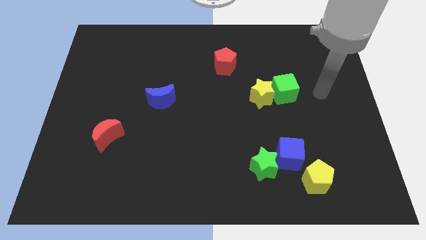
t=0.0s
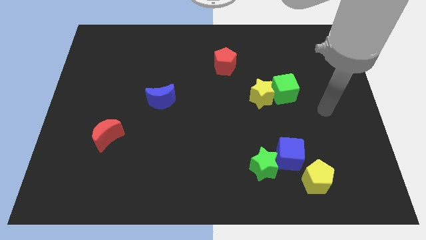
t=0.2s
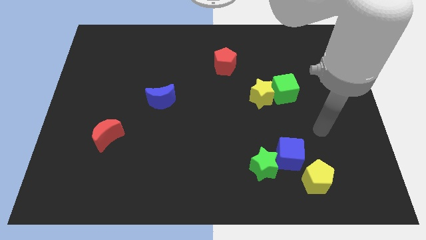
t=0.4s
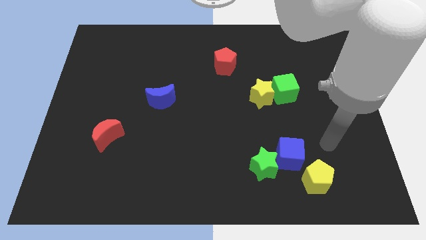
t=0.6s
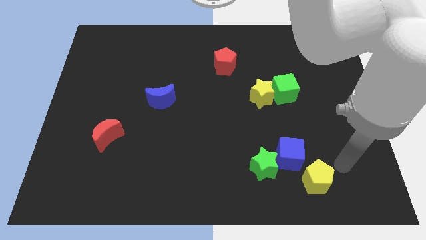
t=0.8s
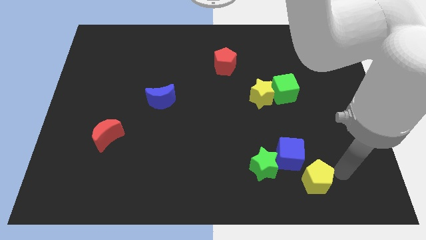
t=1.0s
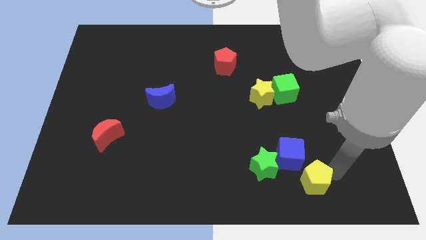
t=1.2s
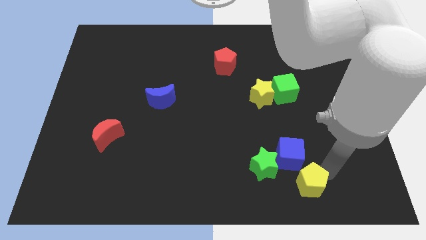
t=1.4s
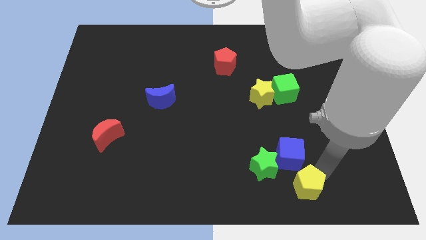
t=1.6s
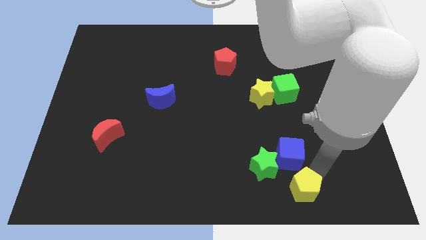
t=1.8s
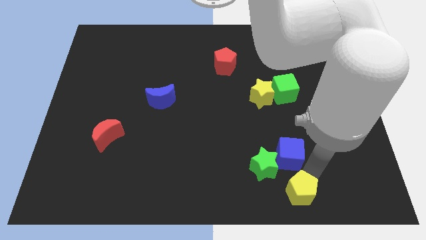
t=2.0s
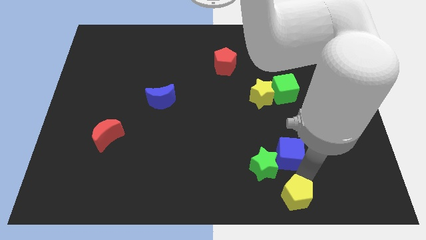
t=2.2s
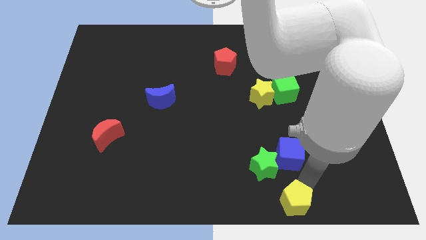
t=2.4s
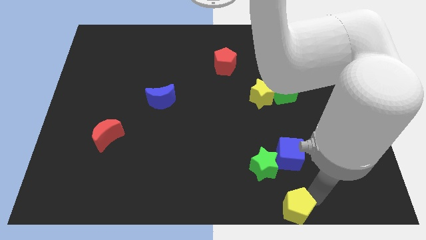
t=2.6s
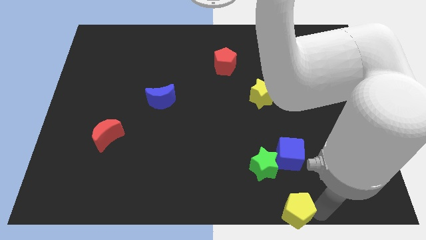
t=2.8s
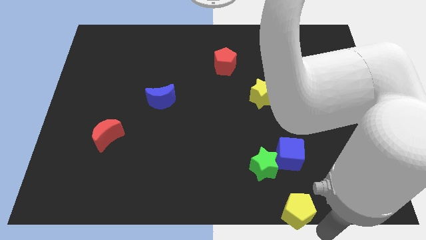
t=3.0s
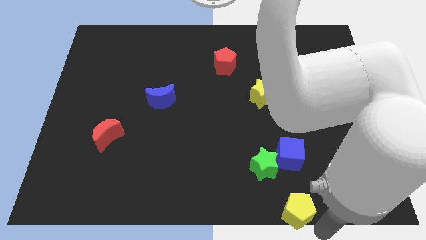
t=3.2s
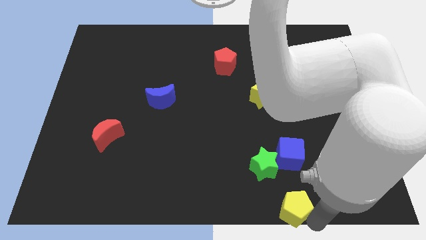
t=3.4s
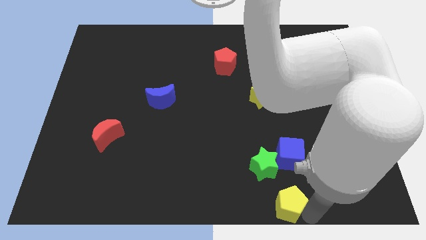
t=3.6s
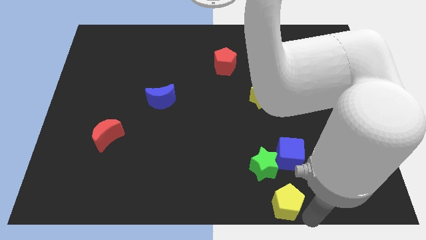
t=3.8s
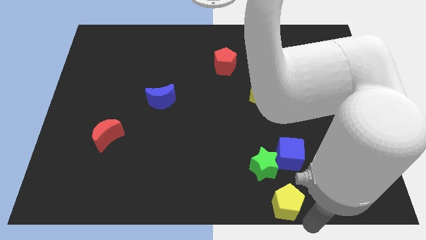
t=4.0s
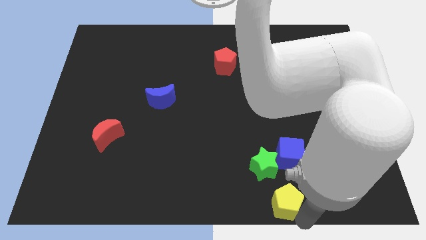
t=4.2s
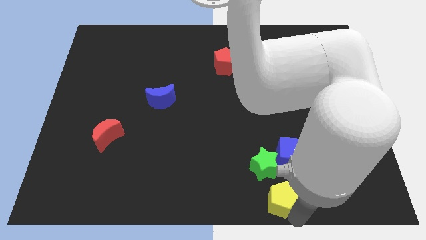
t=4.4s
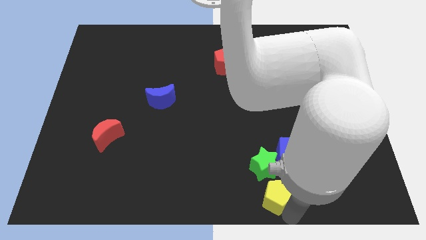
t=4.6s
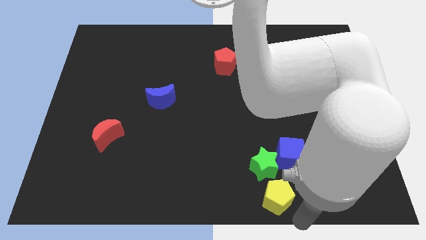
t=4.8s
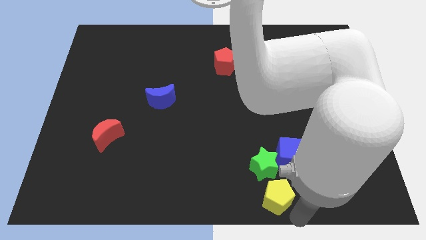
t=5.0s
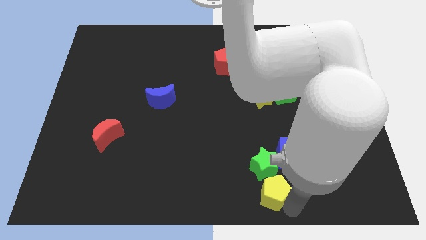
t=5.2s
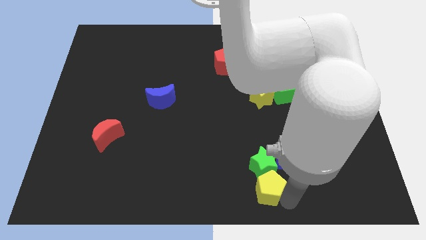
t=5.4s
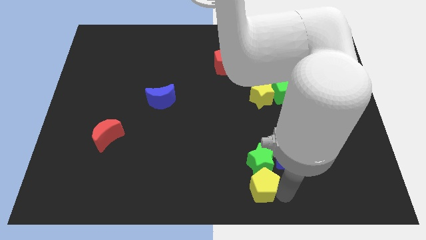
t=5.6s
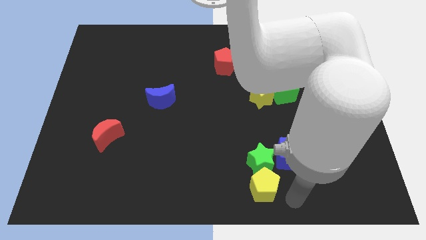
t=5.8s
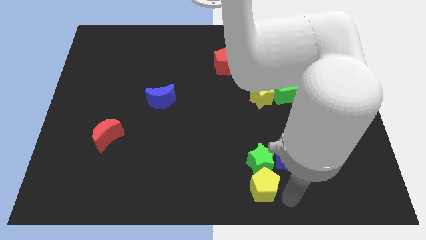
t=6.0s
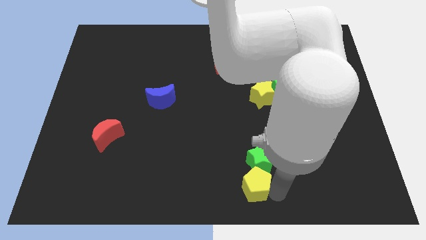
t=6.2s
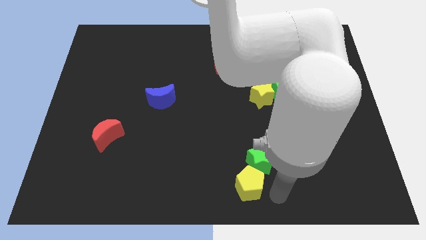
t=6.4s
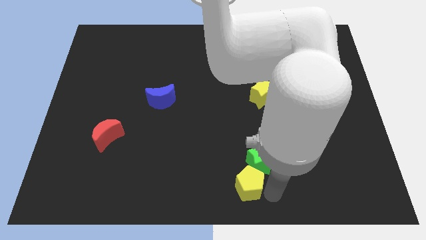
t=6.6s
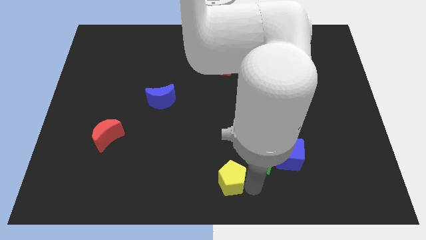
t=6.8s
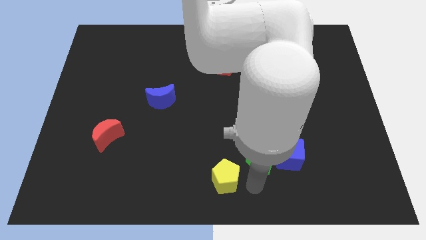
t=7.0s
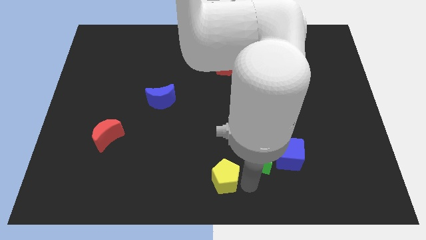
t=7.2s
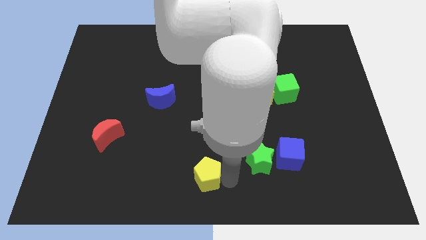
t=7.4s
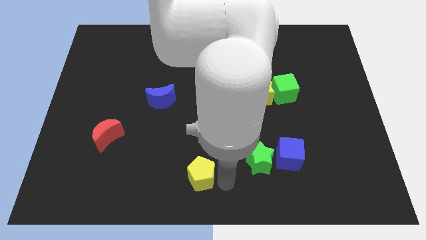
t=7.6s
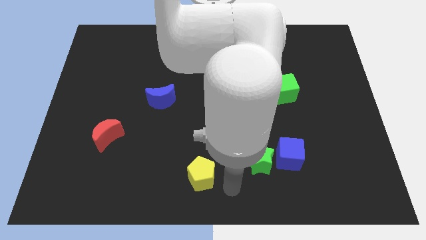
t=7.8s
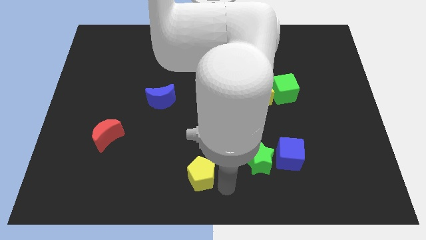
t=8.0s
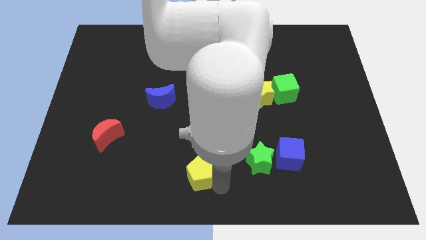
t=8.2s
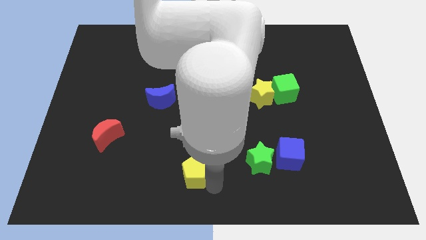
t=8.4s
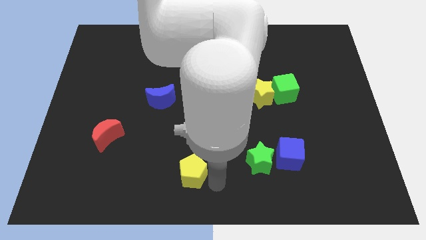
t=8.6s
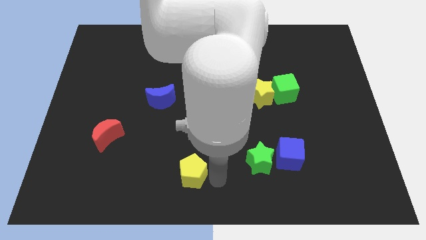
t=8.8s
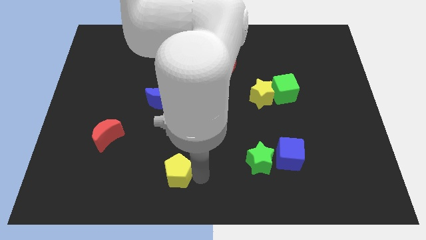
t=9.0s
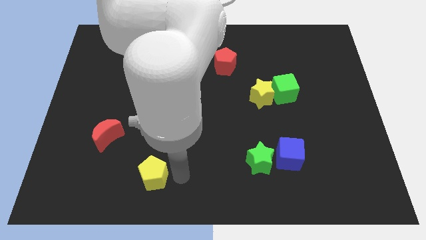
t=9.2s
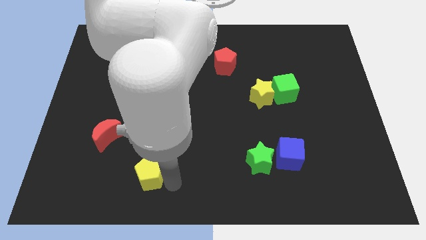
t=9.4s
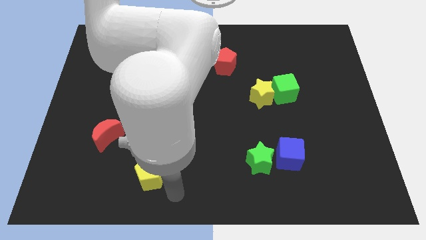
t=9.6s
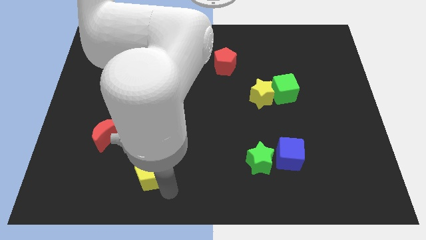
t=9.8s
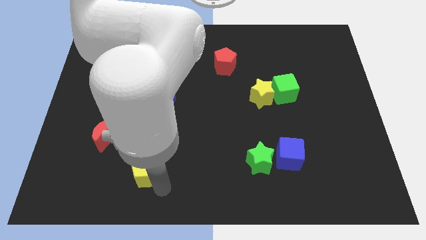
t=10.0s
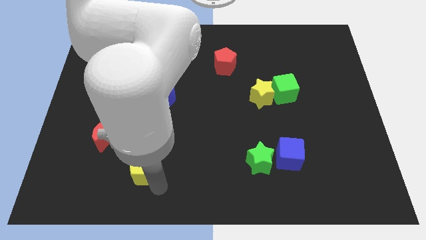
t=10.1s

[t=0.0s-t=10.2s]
put the yellow pentagon to the bottom right of the red moon

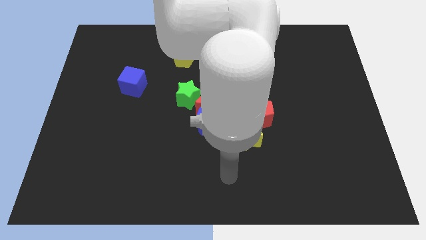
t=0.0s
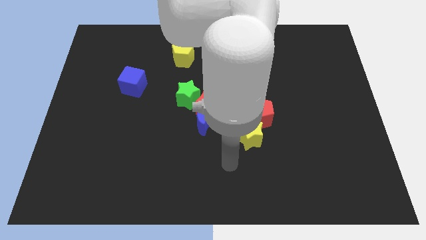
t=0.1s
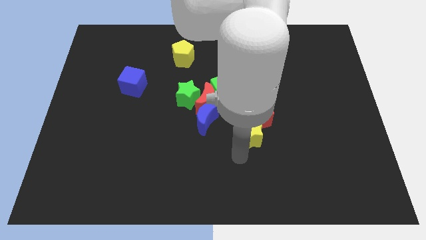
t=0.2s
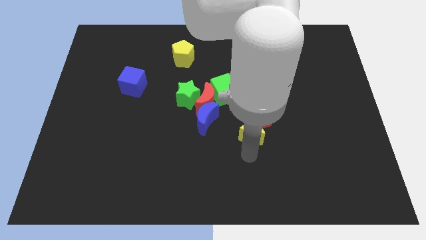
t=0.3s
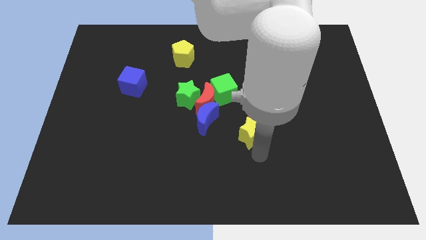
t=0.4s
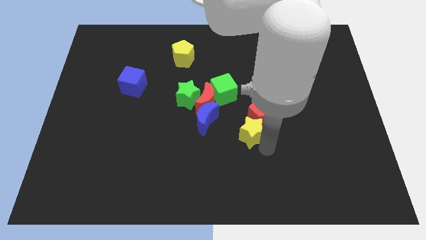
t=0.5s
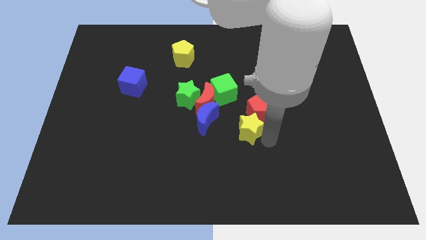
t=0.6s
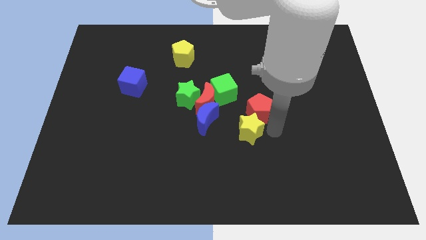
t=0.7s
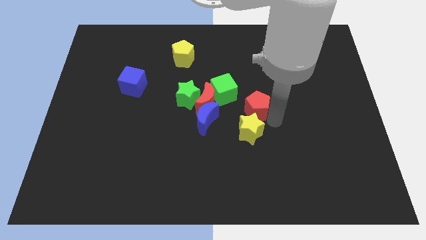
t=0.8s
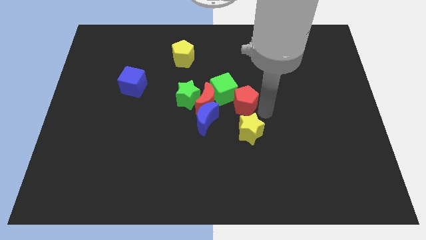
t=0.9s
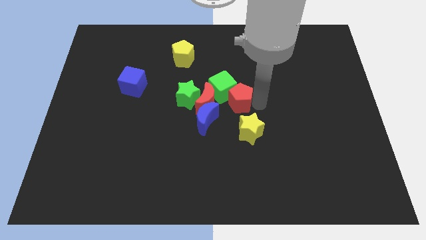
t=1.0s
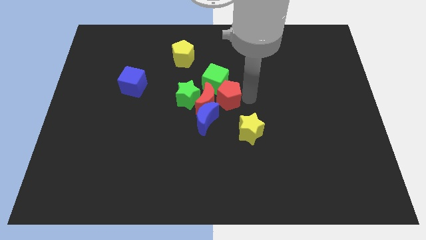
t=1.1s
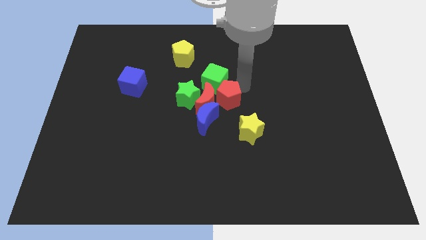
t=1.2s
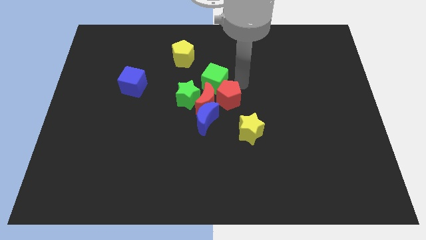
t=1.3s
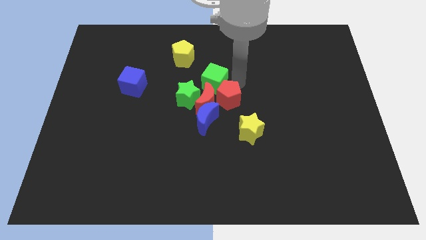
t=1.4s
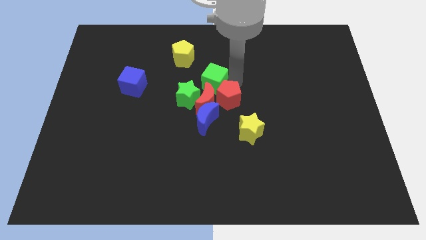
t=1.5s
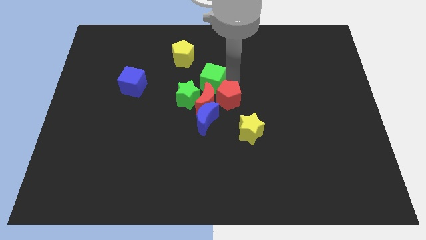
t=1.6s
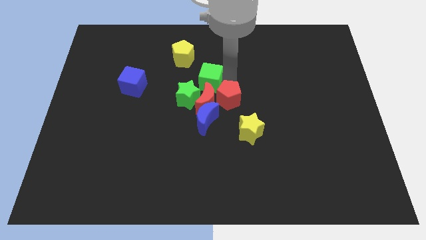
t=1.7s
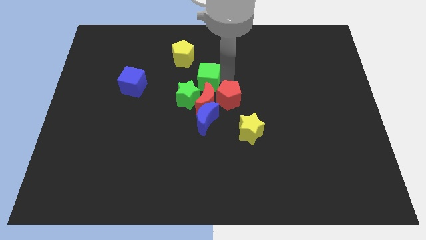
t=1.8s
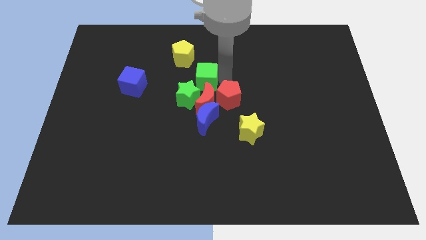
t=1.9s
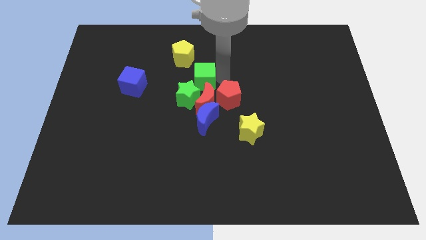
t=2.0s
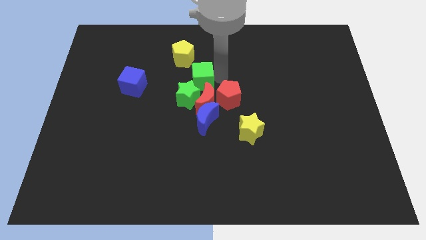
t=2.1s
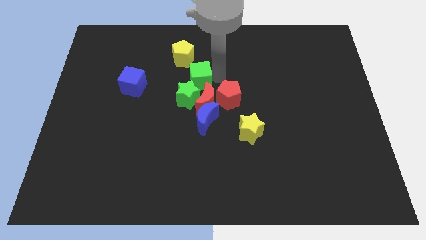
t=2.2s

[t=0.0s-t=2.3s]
slide the green cube to the bottom of the yellow pentagon
